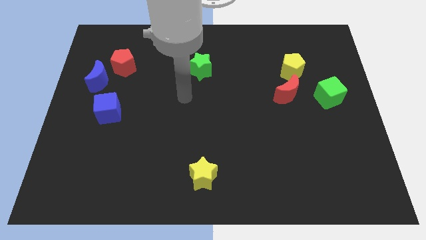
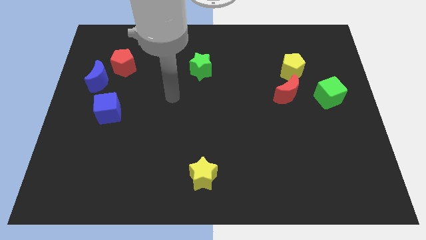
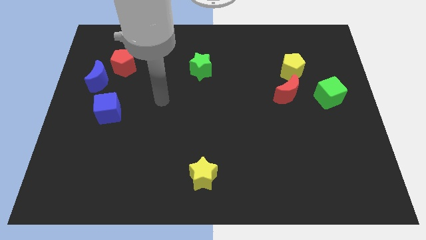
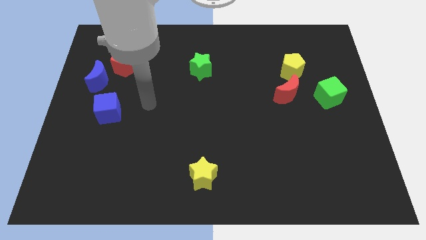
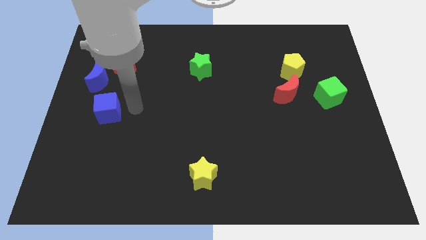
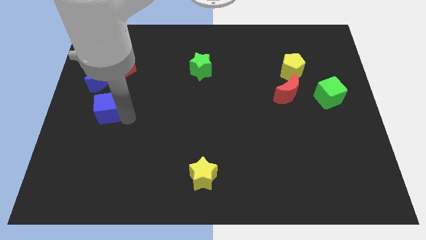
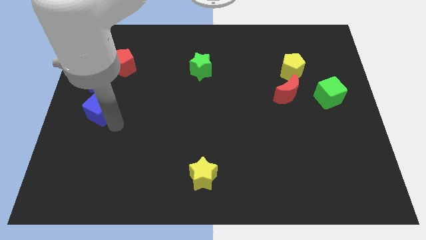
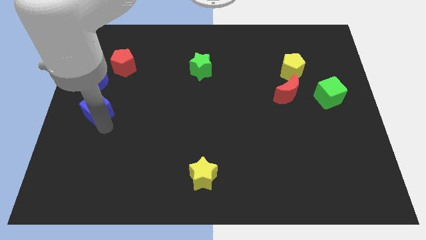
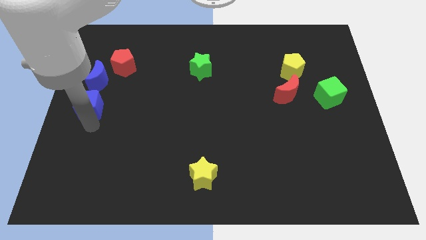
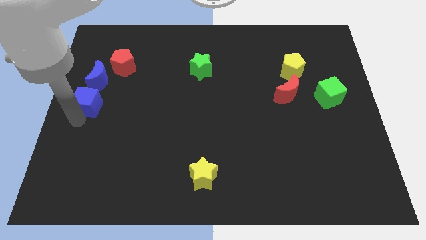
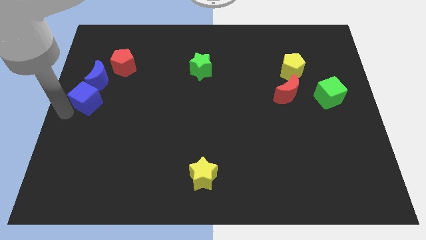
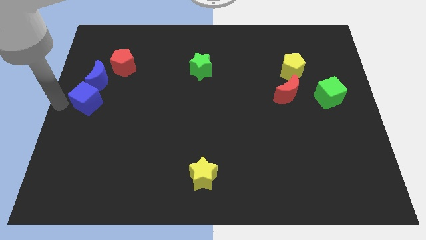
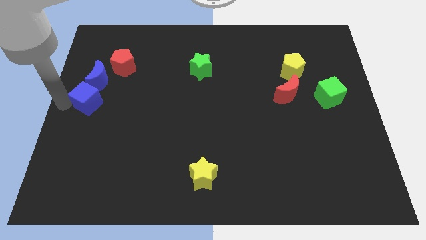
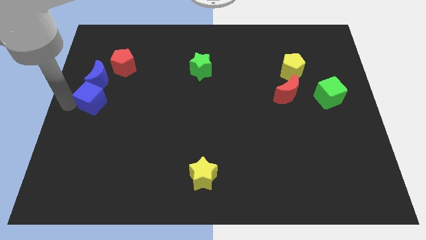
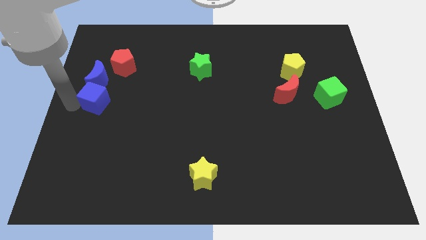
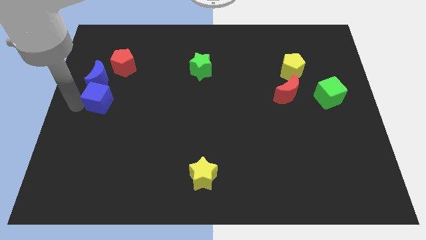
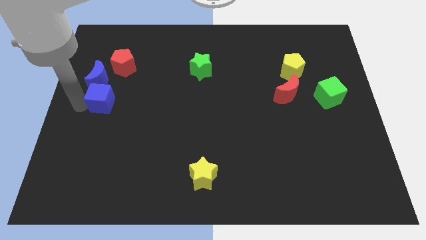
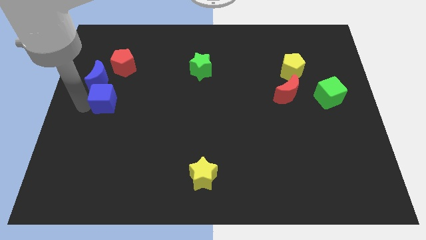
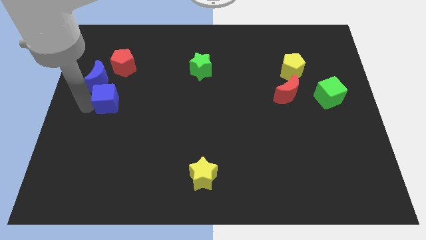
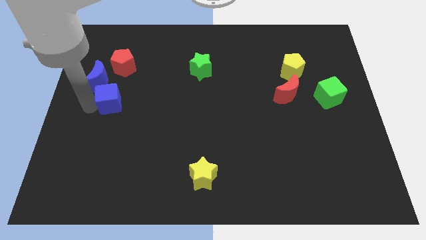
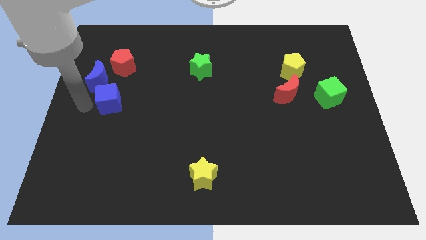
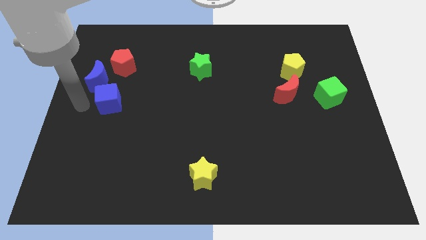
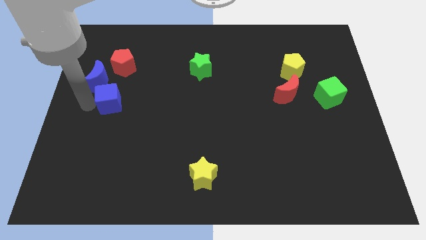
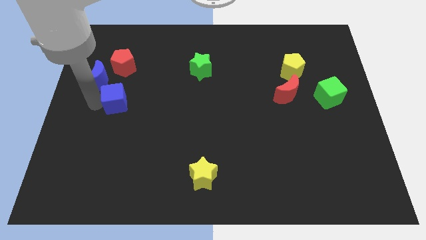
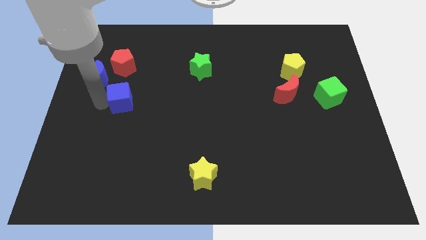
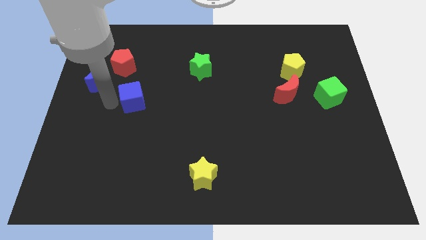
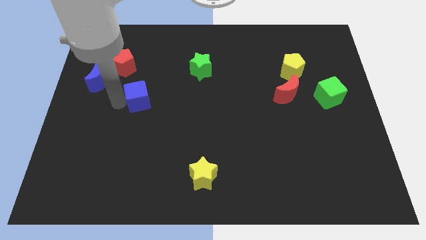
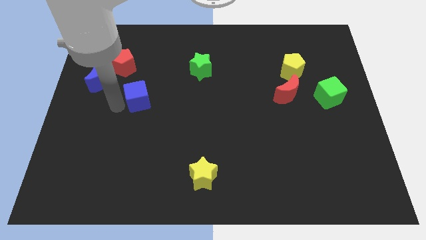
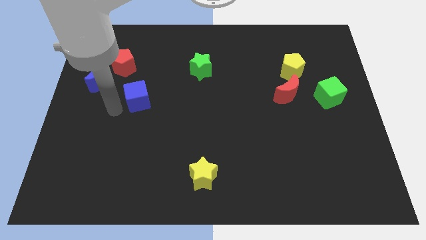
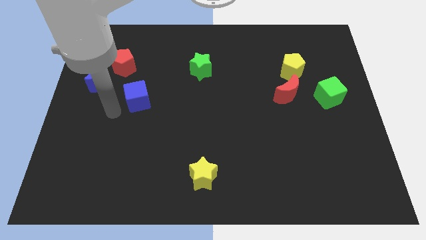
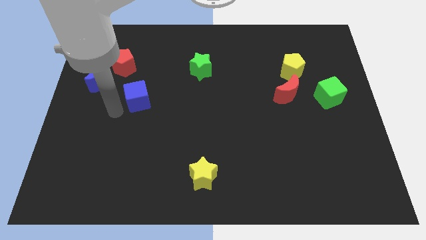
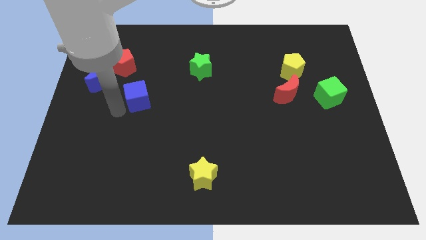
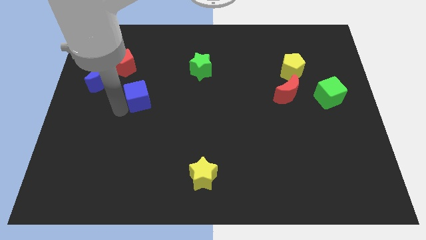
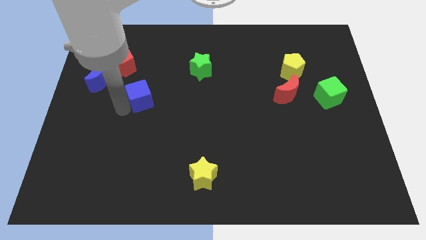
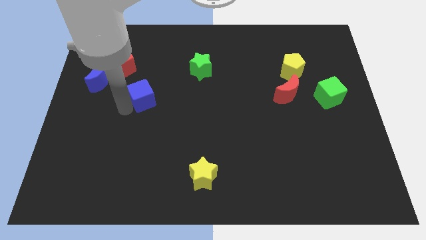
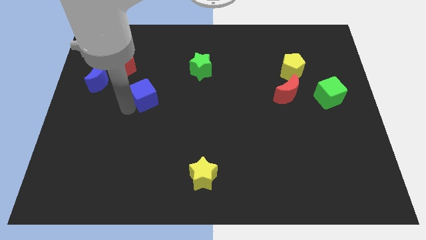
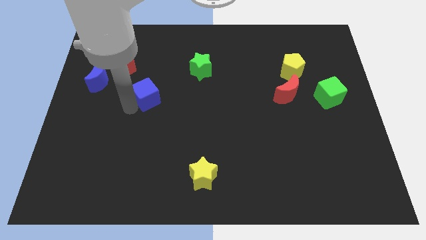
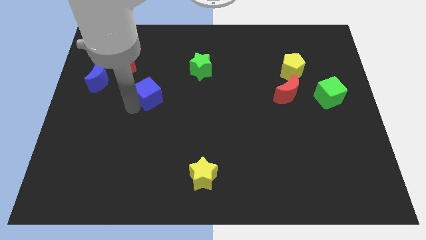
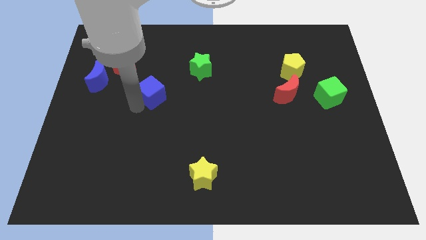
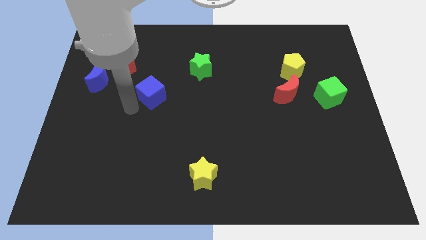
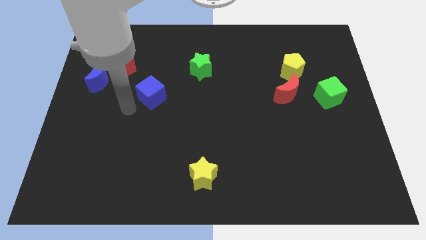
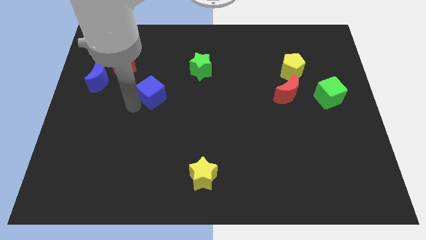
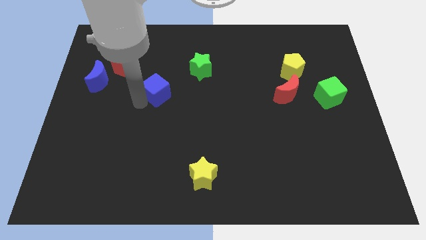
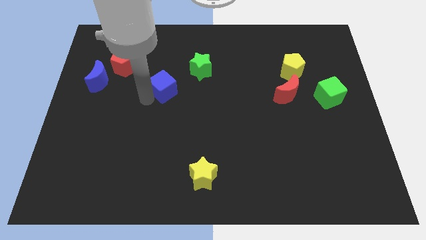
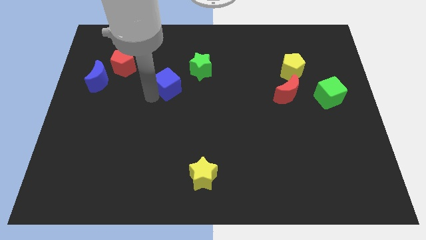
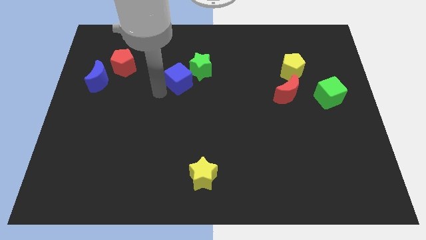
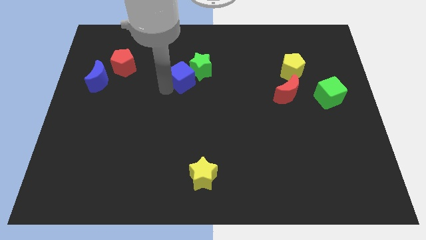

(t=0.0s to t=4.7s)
put the blue cube towards the green star

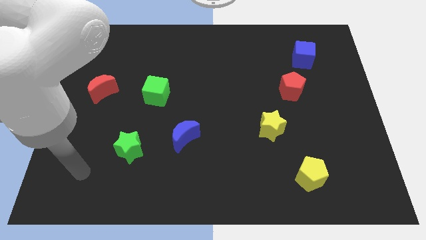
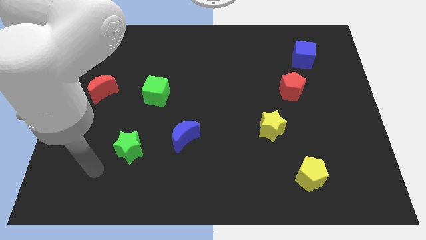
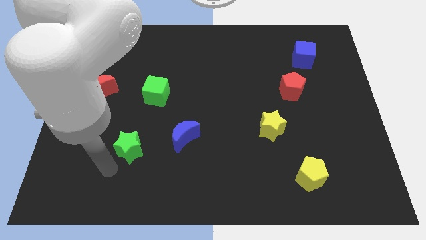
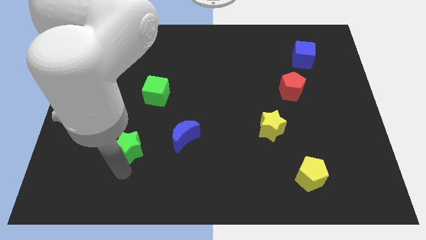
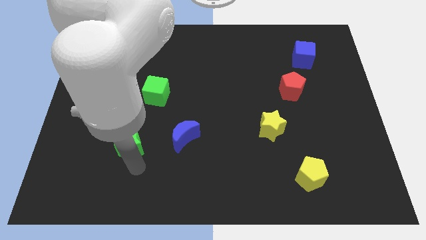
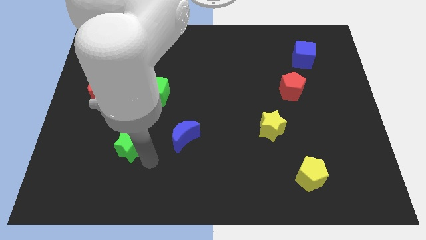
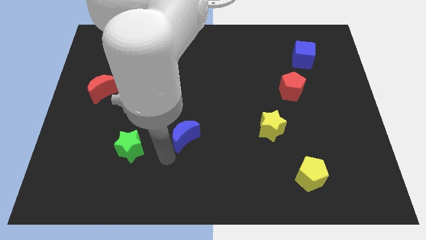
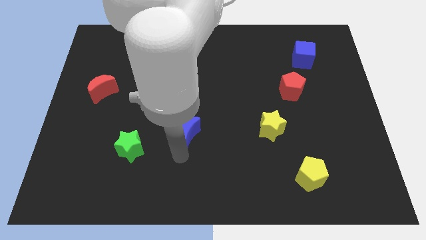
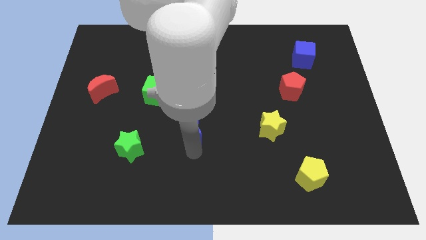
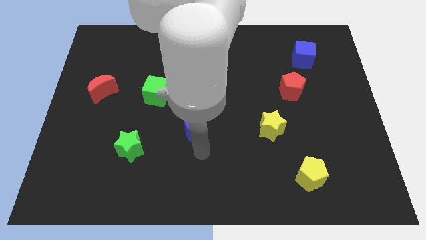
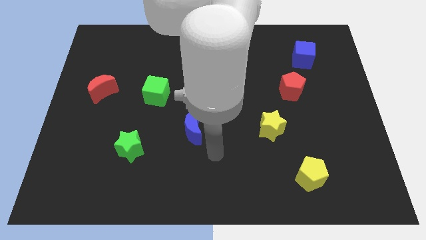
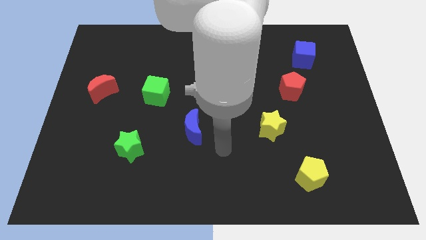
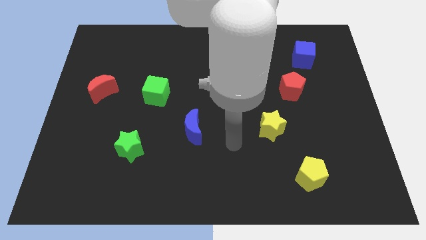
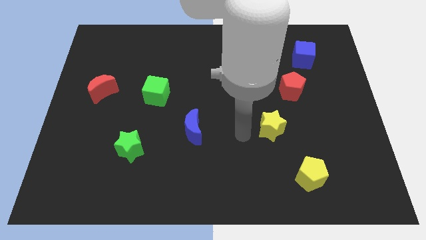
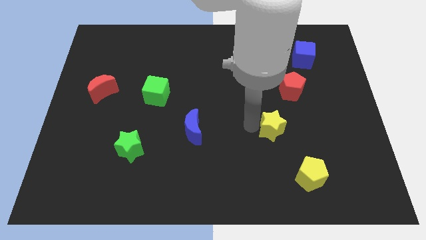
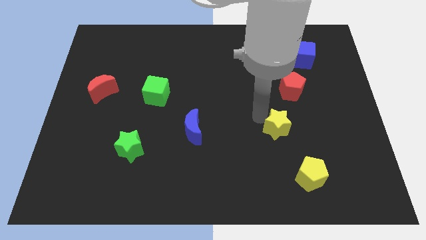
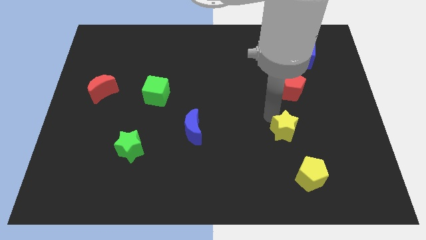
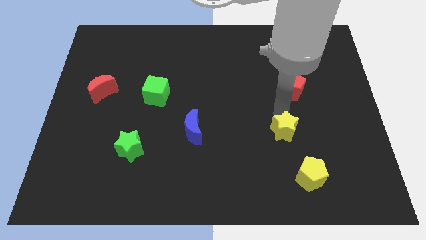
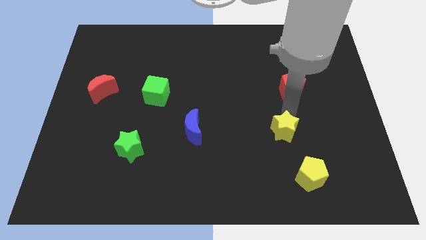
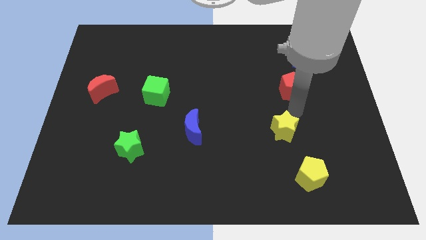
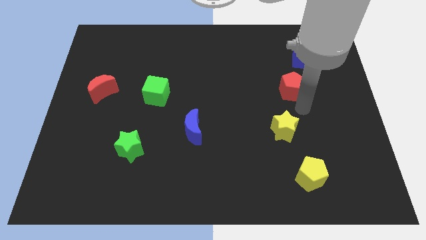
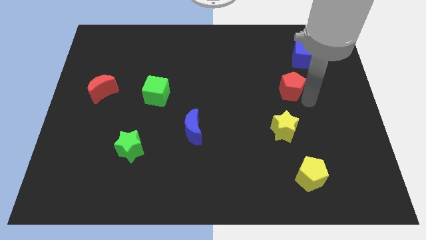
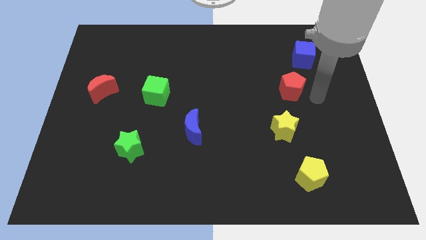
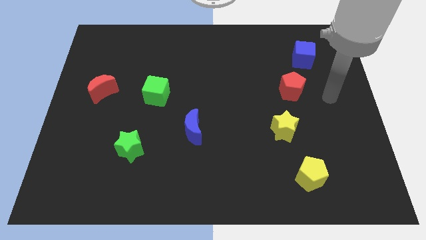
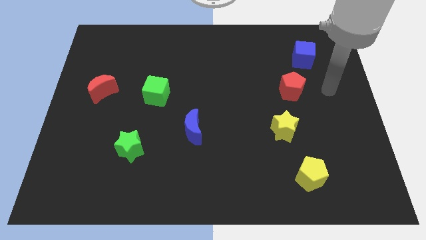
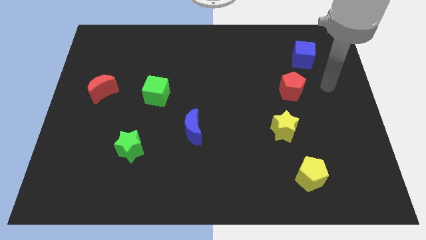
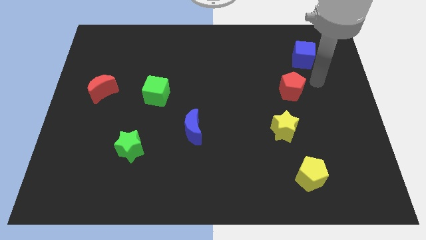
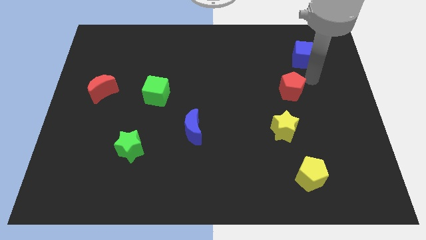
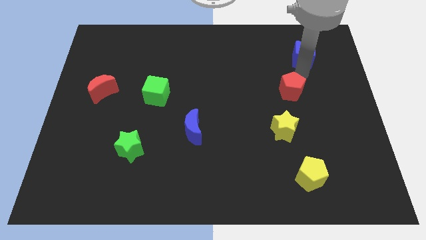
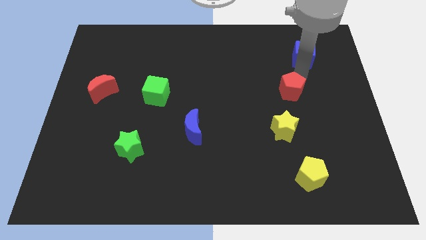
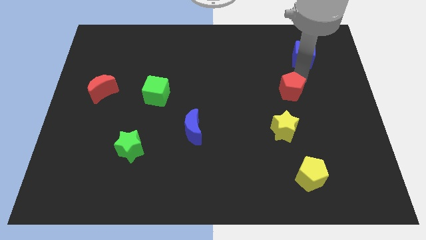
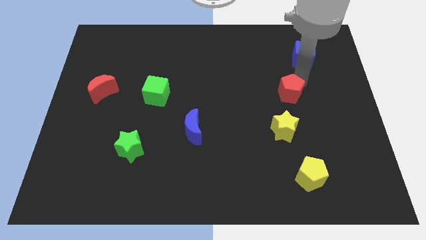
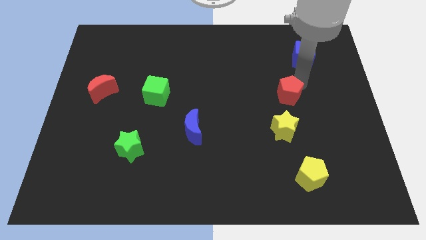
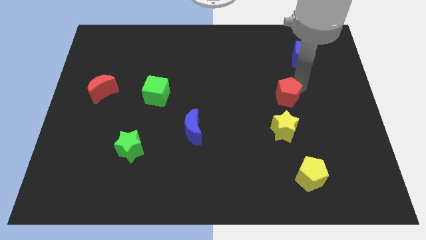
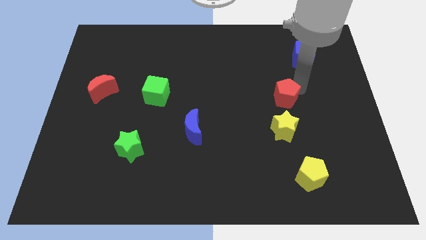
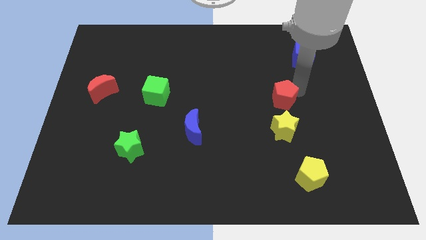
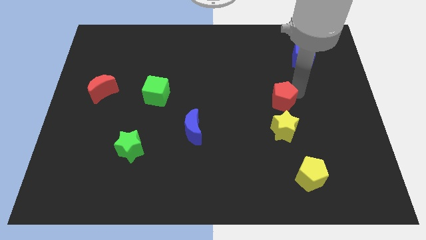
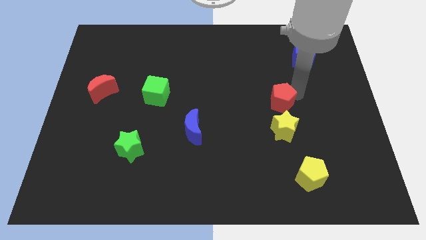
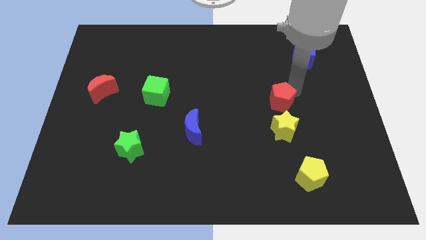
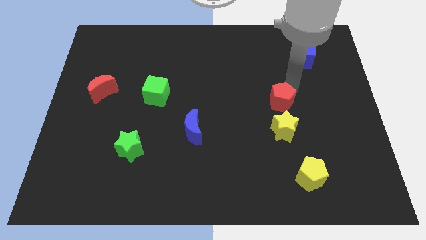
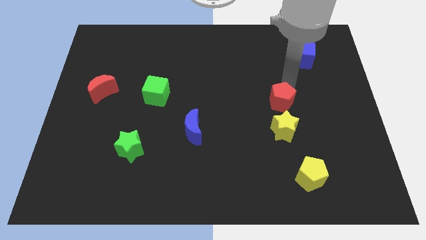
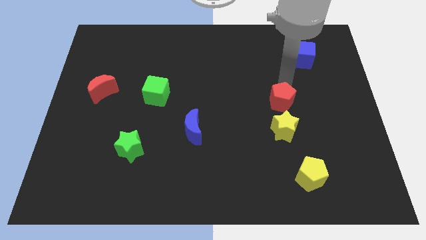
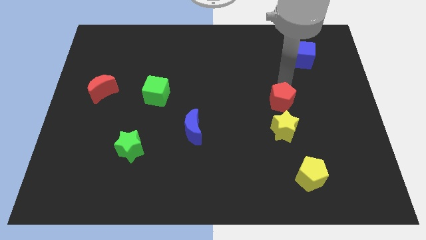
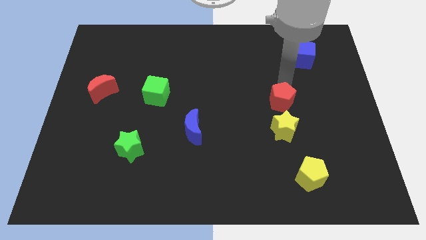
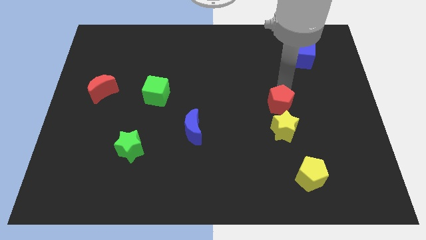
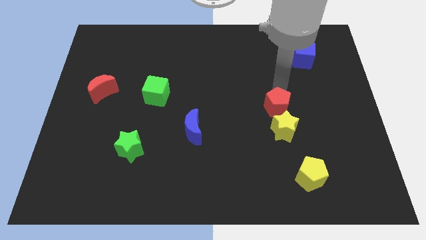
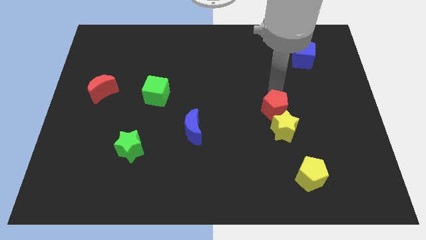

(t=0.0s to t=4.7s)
slide the red pentagon next to the yellow star
